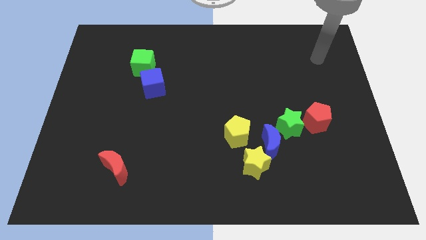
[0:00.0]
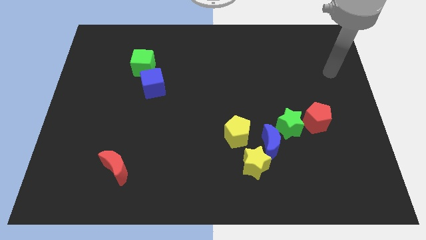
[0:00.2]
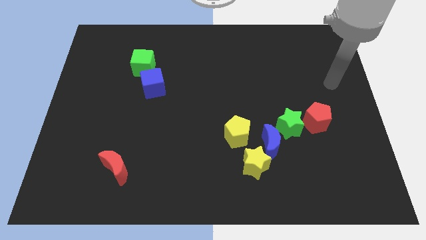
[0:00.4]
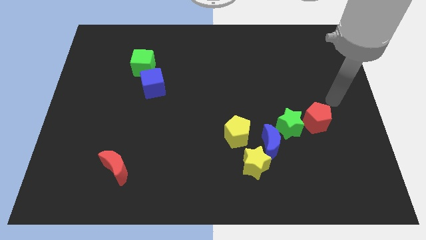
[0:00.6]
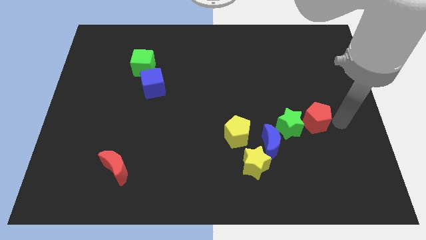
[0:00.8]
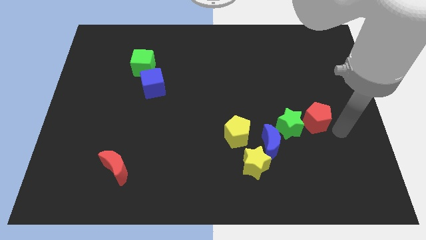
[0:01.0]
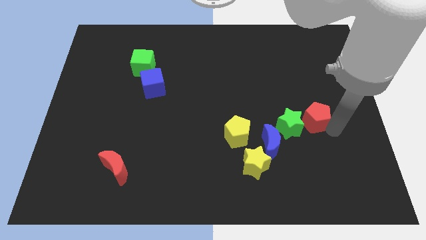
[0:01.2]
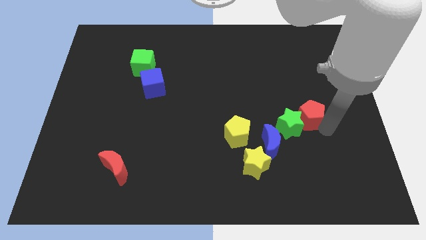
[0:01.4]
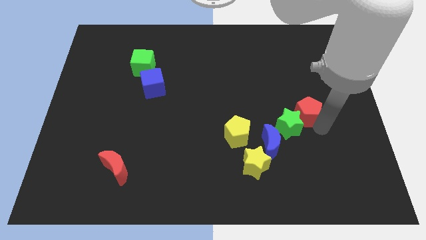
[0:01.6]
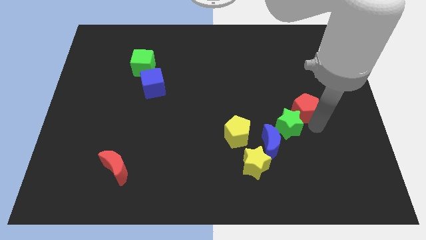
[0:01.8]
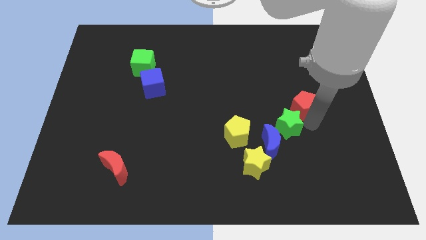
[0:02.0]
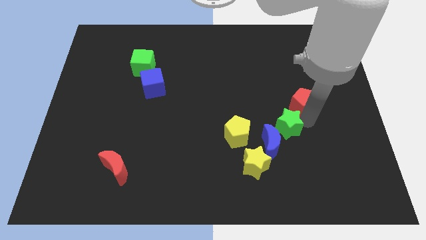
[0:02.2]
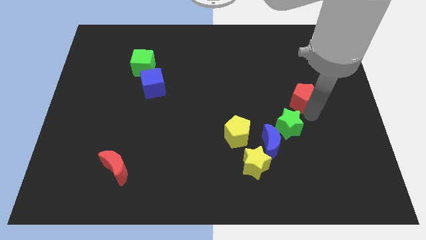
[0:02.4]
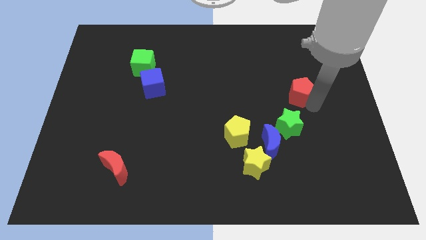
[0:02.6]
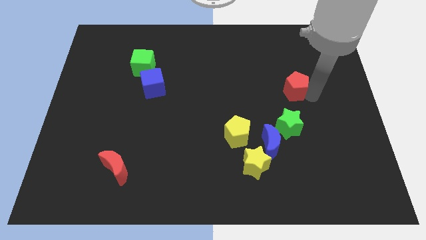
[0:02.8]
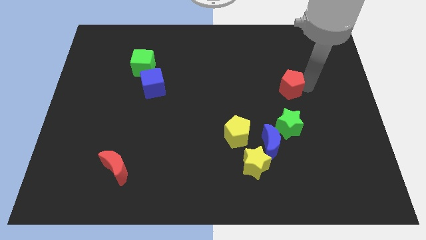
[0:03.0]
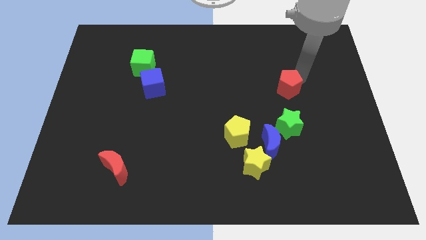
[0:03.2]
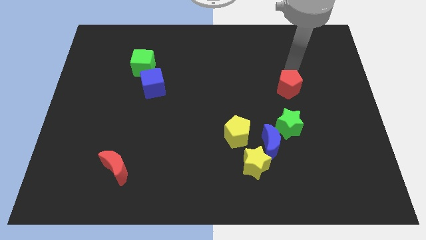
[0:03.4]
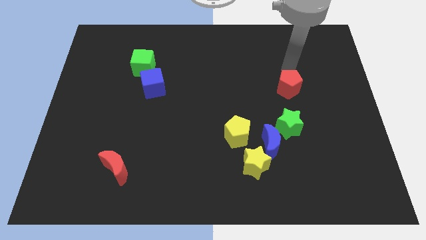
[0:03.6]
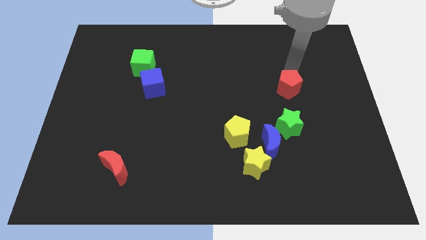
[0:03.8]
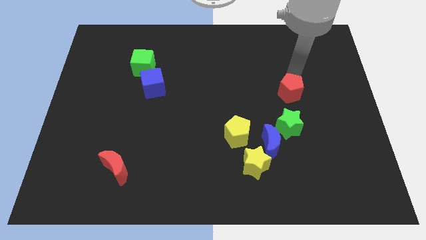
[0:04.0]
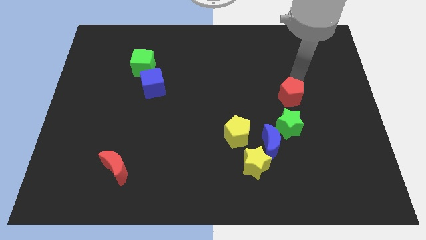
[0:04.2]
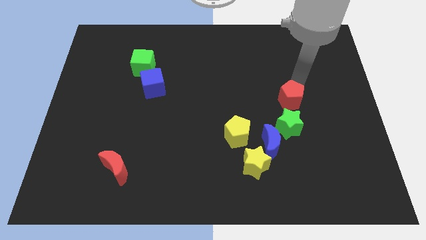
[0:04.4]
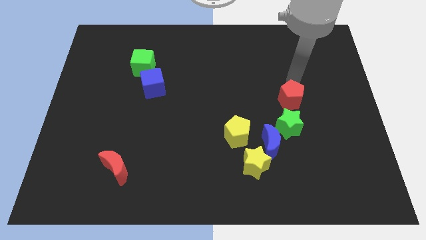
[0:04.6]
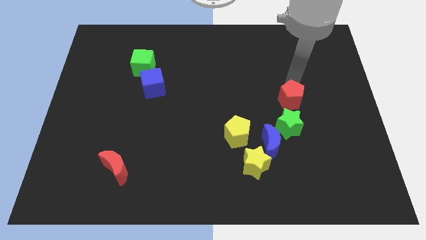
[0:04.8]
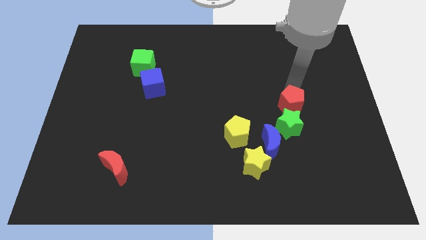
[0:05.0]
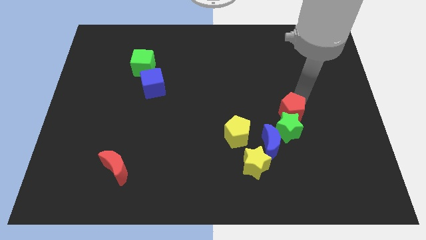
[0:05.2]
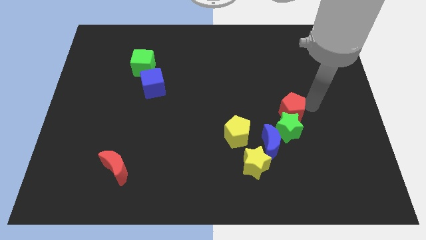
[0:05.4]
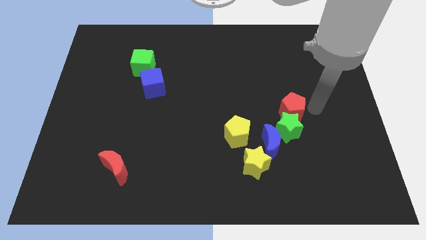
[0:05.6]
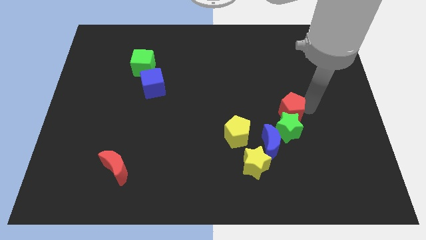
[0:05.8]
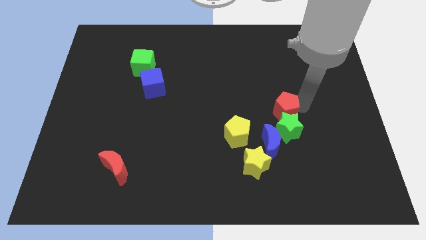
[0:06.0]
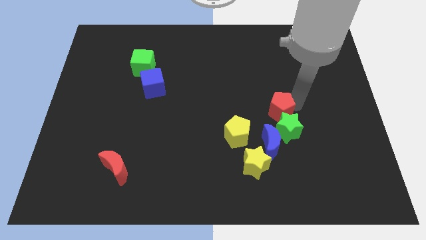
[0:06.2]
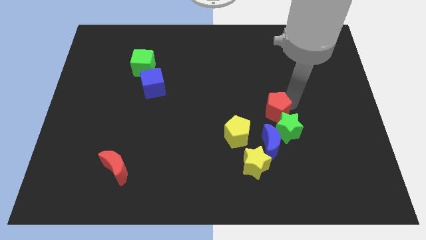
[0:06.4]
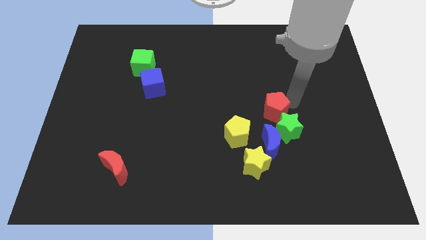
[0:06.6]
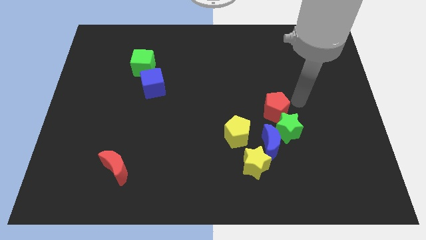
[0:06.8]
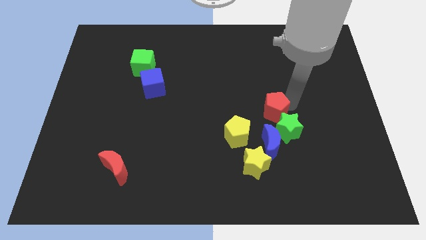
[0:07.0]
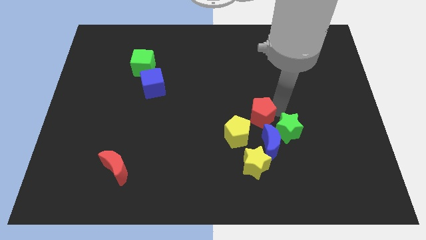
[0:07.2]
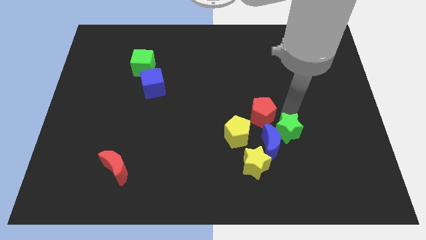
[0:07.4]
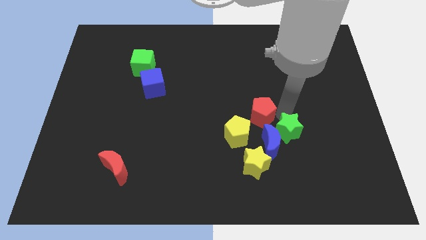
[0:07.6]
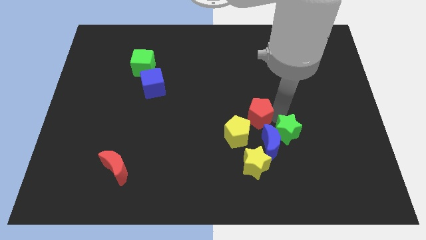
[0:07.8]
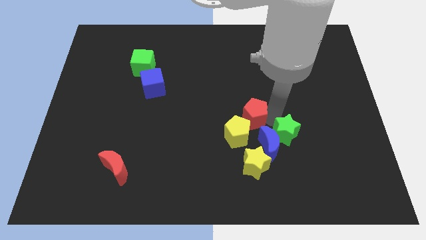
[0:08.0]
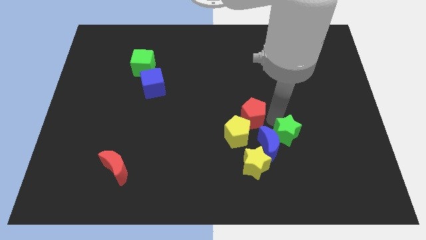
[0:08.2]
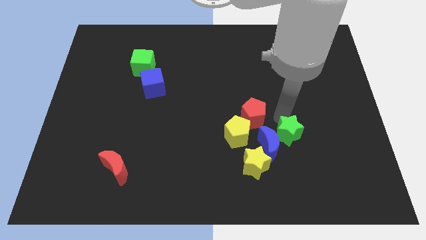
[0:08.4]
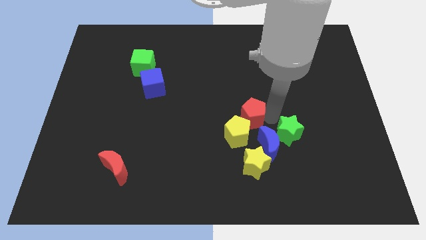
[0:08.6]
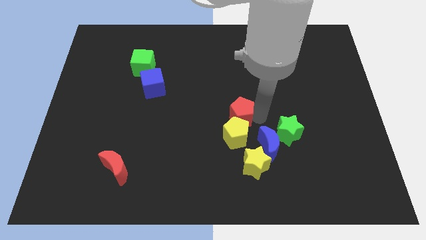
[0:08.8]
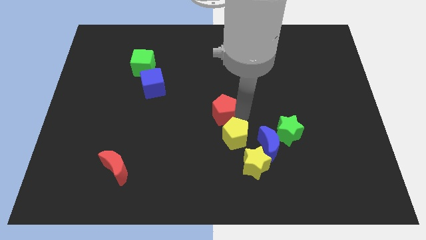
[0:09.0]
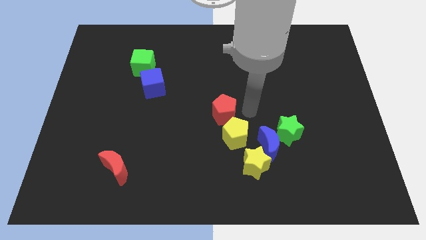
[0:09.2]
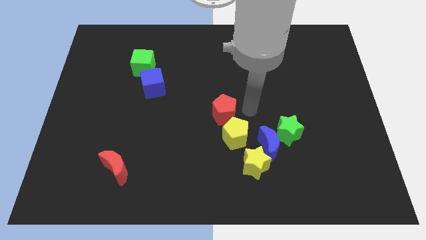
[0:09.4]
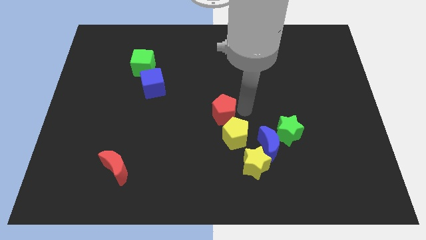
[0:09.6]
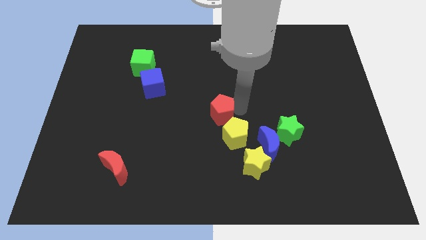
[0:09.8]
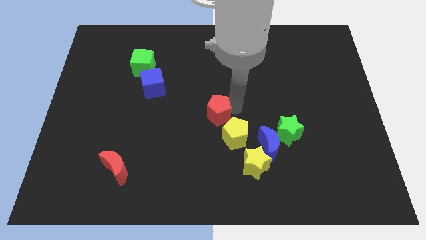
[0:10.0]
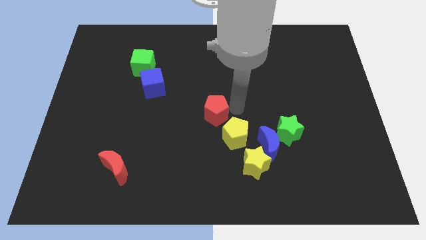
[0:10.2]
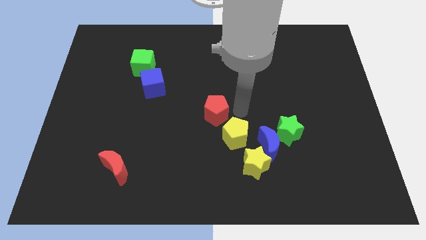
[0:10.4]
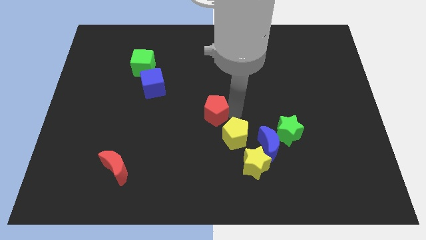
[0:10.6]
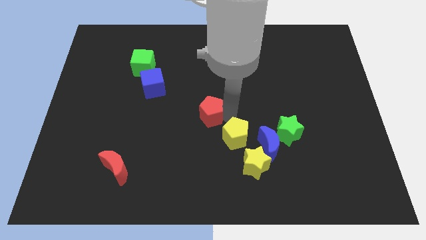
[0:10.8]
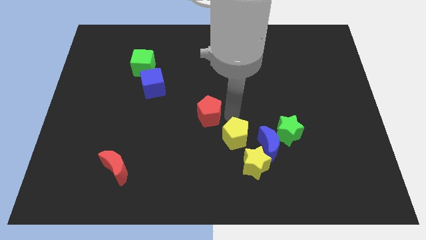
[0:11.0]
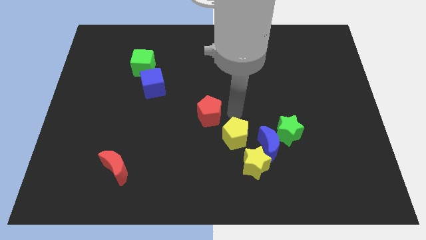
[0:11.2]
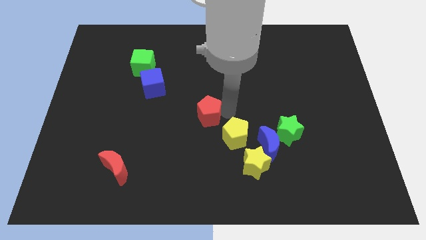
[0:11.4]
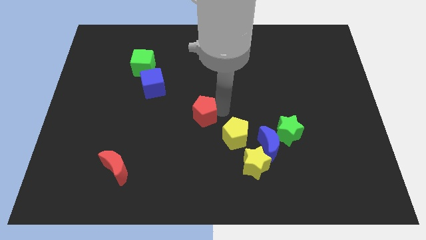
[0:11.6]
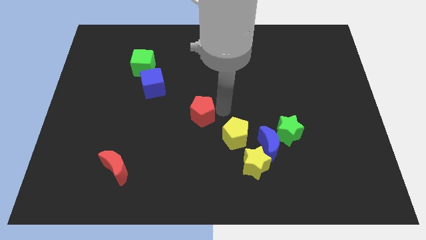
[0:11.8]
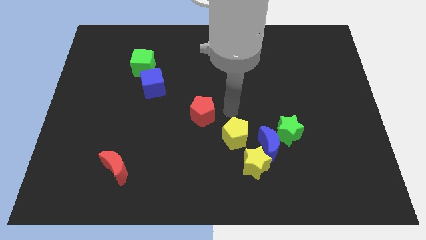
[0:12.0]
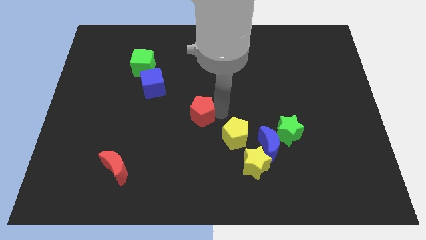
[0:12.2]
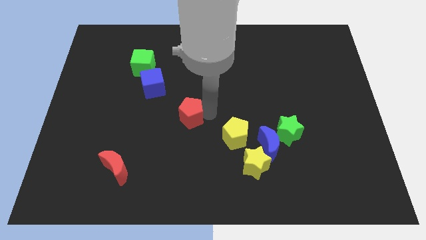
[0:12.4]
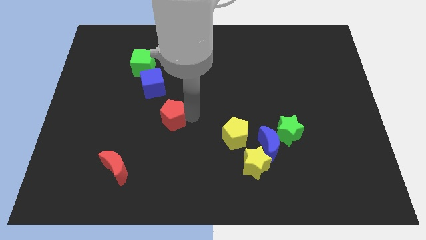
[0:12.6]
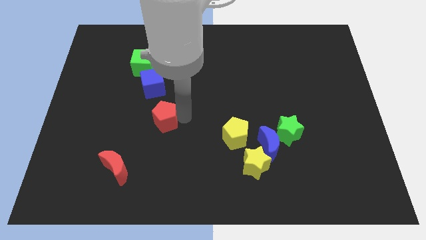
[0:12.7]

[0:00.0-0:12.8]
put the red pentagon below the blue cube
